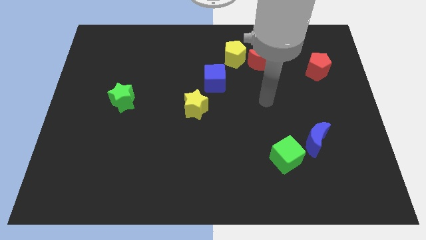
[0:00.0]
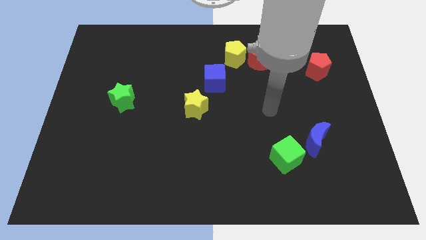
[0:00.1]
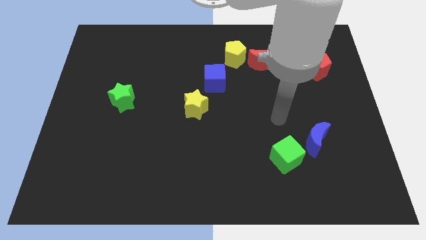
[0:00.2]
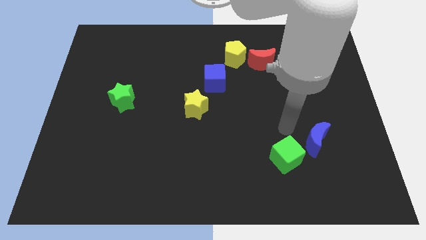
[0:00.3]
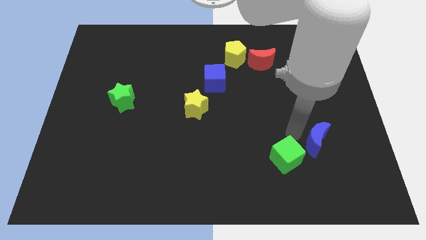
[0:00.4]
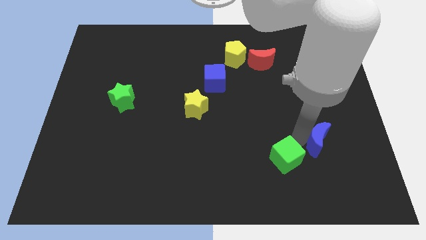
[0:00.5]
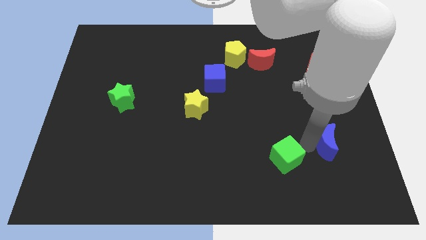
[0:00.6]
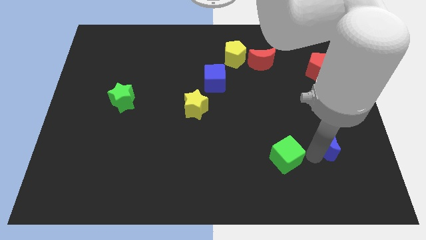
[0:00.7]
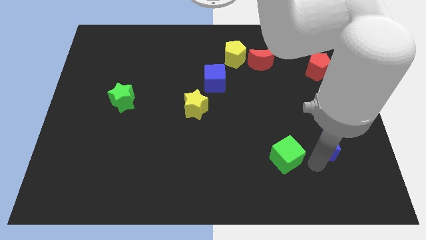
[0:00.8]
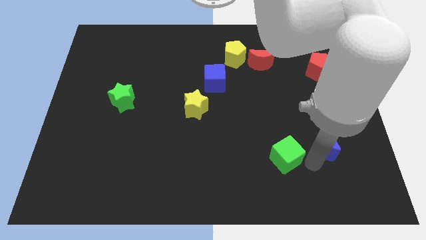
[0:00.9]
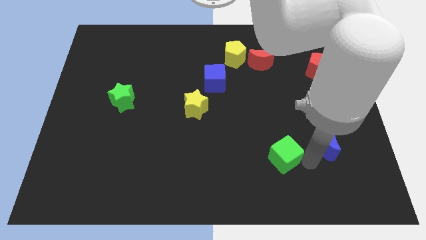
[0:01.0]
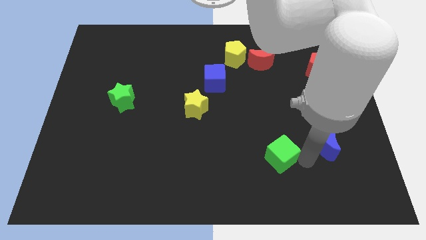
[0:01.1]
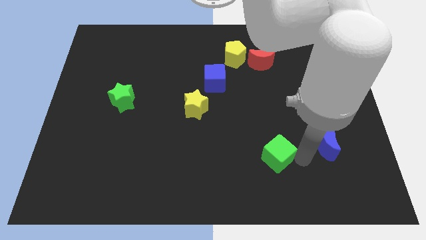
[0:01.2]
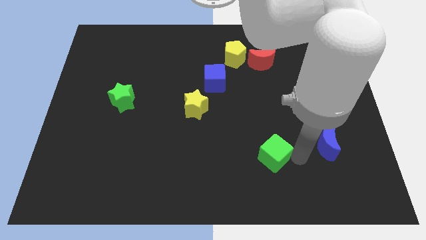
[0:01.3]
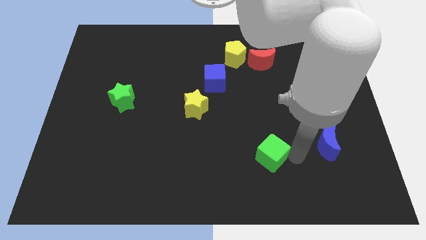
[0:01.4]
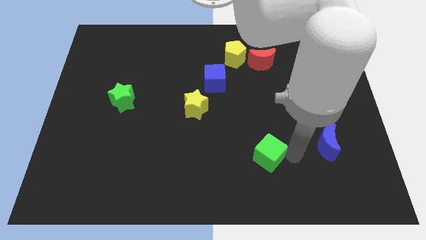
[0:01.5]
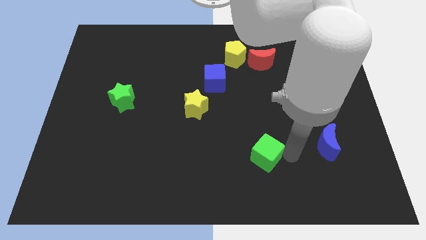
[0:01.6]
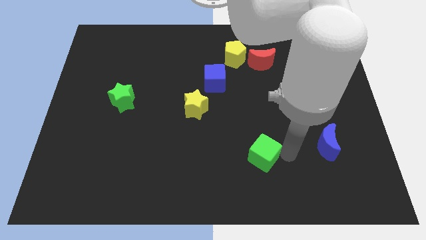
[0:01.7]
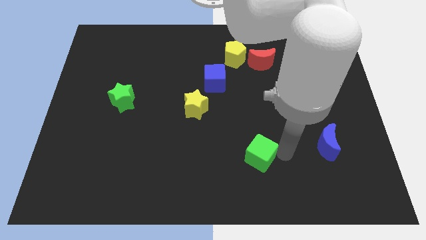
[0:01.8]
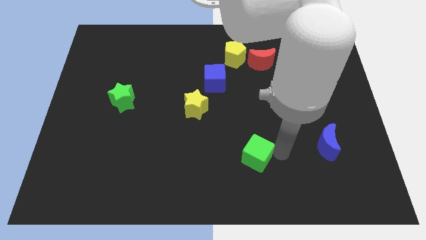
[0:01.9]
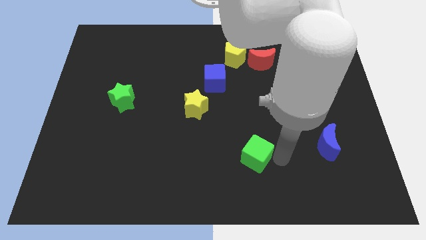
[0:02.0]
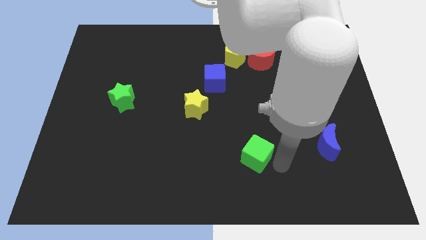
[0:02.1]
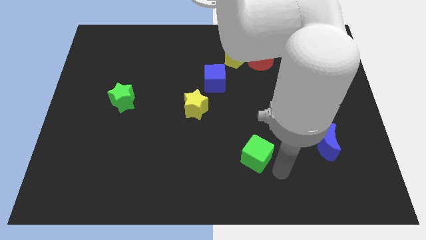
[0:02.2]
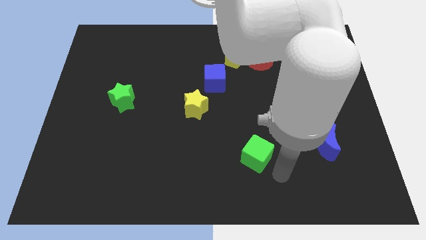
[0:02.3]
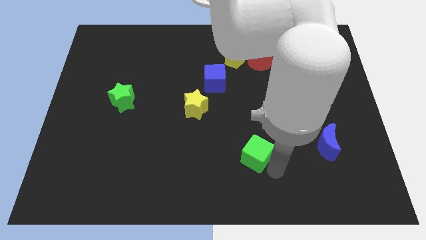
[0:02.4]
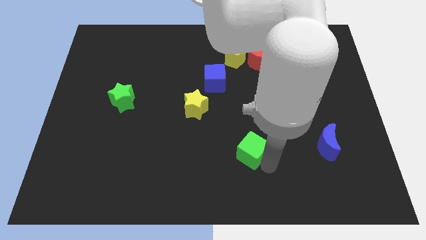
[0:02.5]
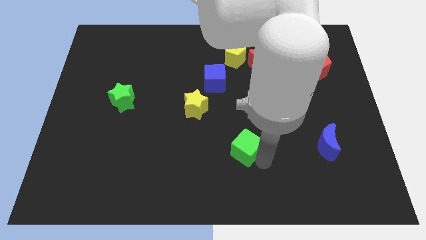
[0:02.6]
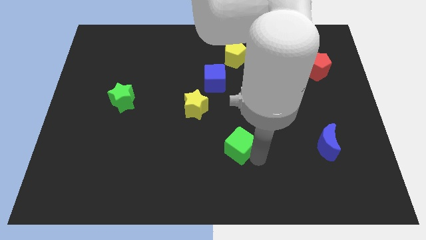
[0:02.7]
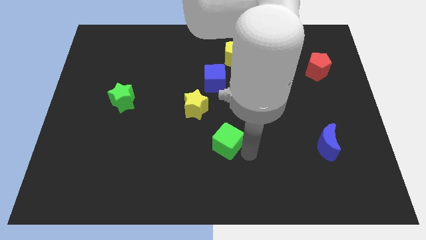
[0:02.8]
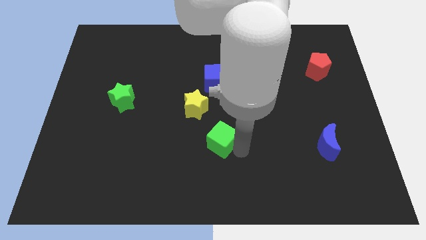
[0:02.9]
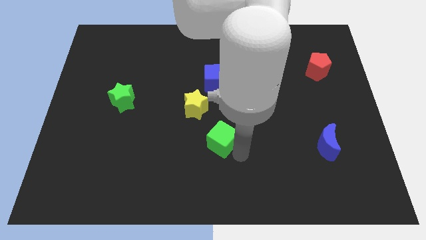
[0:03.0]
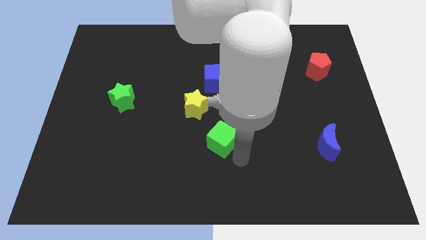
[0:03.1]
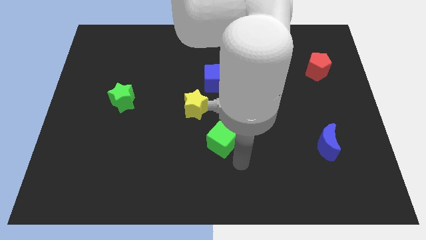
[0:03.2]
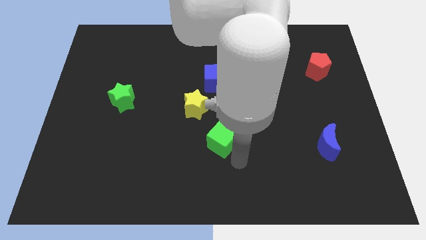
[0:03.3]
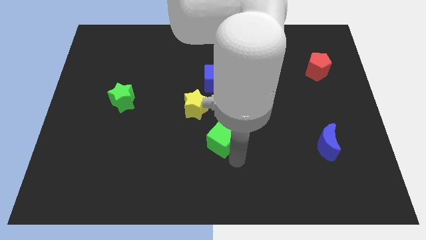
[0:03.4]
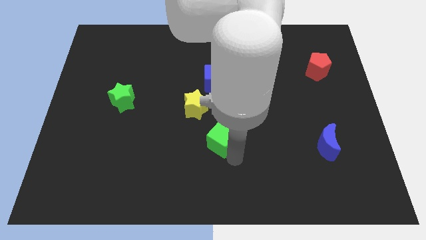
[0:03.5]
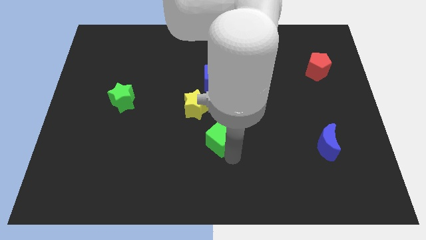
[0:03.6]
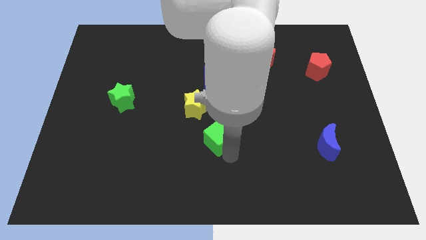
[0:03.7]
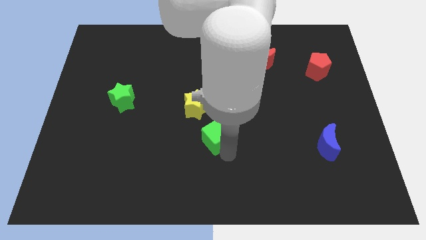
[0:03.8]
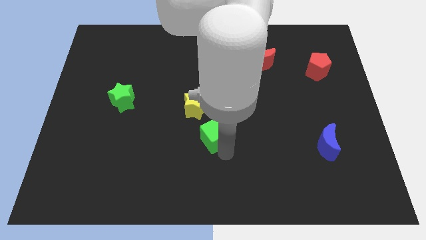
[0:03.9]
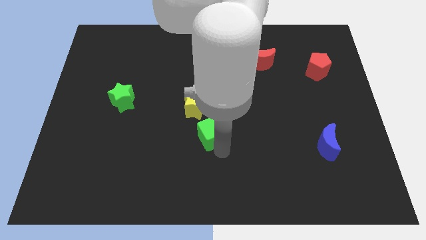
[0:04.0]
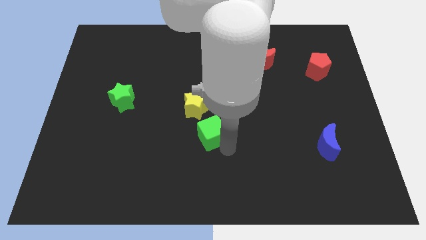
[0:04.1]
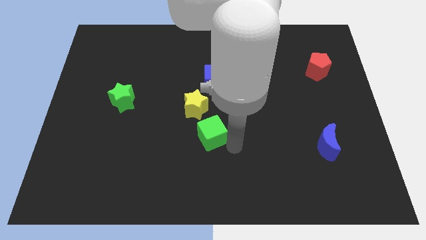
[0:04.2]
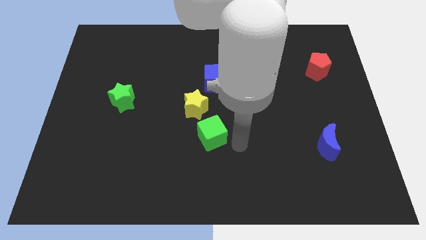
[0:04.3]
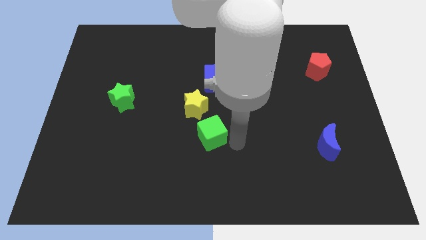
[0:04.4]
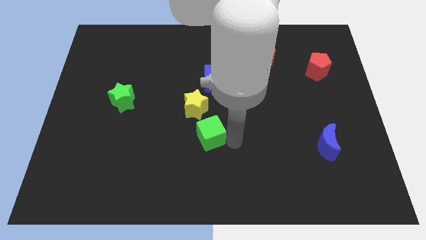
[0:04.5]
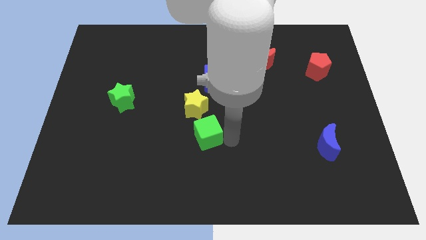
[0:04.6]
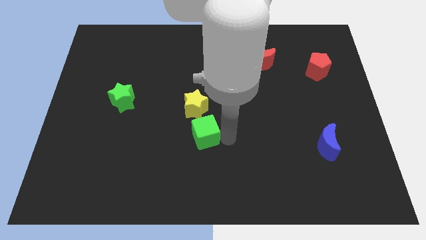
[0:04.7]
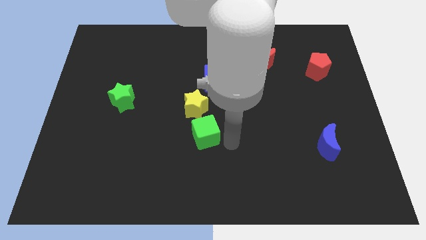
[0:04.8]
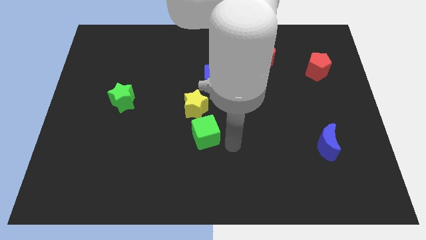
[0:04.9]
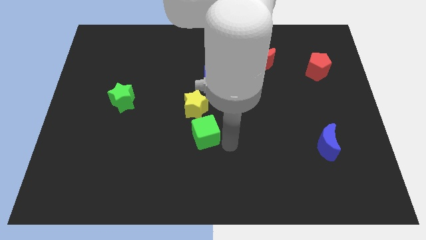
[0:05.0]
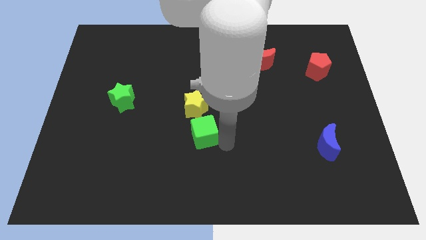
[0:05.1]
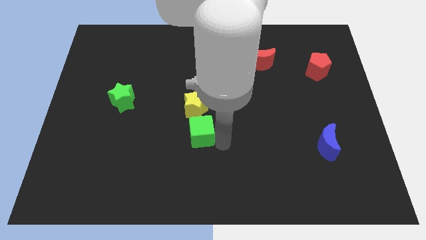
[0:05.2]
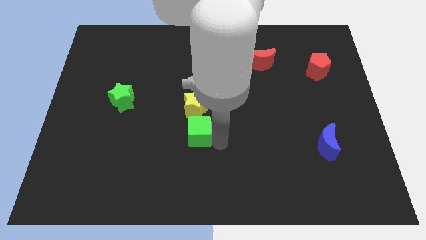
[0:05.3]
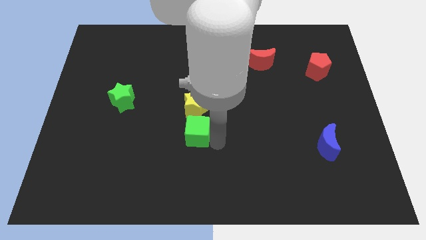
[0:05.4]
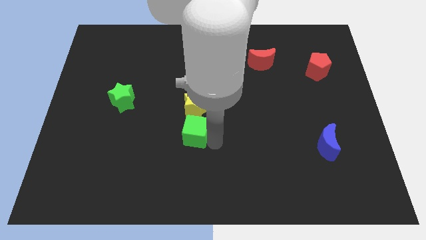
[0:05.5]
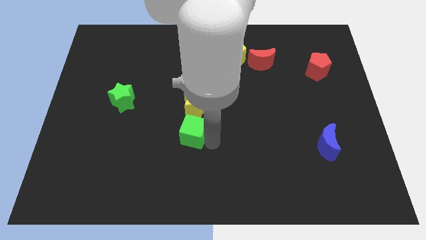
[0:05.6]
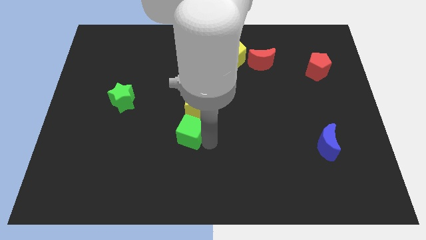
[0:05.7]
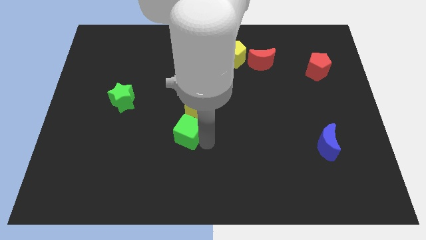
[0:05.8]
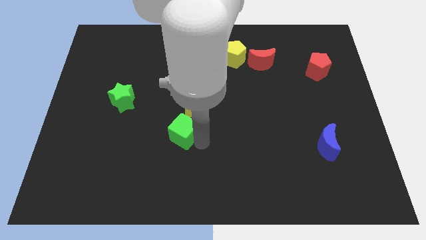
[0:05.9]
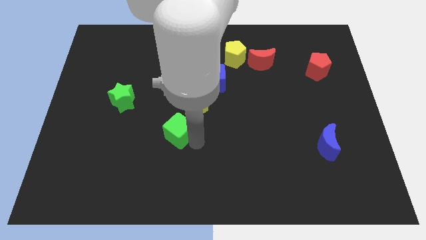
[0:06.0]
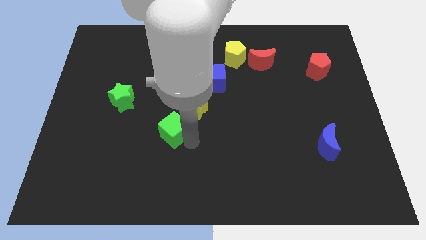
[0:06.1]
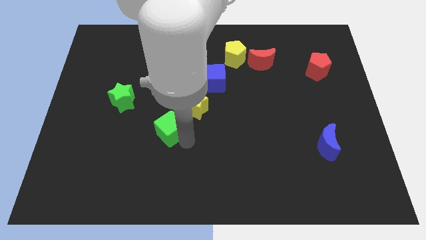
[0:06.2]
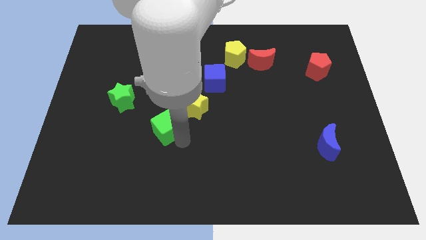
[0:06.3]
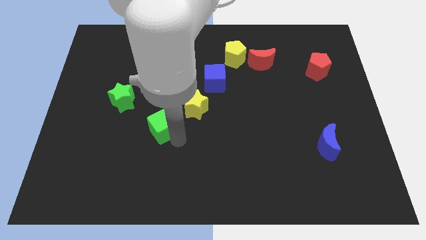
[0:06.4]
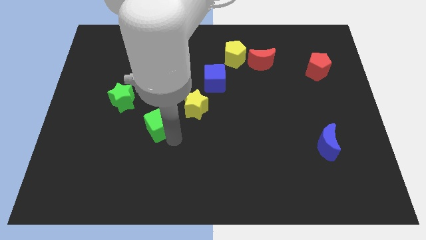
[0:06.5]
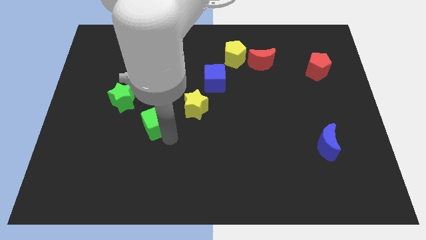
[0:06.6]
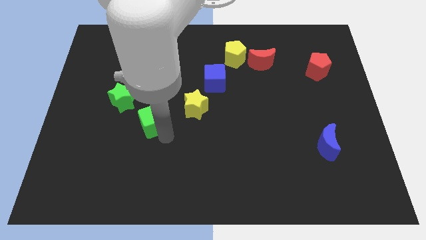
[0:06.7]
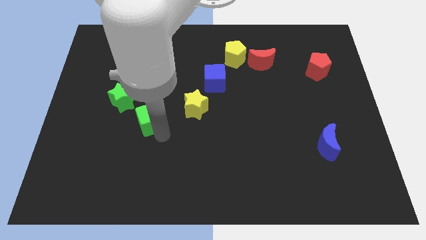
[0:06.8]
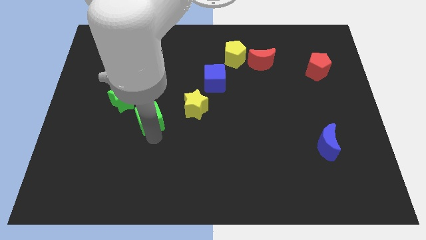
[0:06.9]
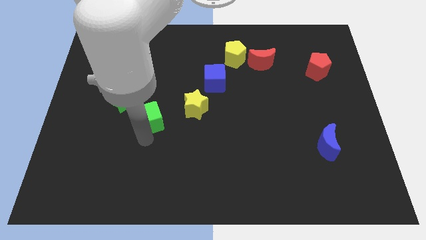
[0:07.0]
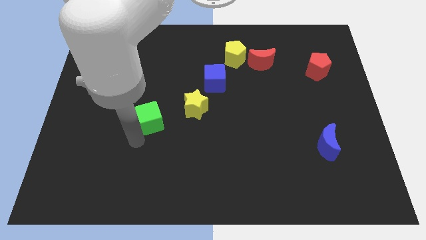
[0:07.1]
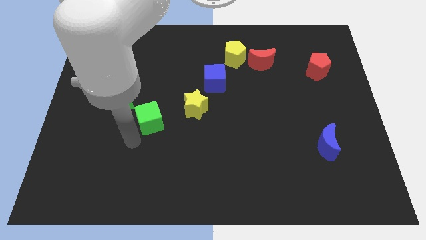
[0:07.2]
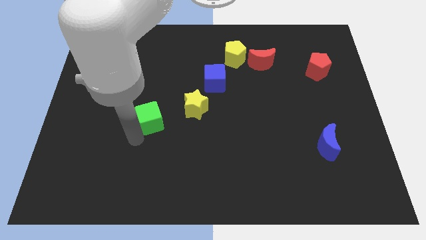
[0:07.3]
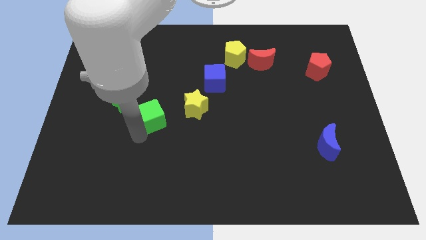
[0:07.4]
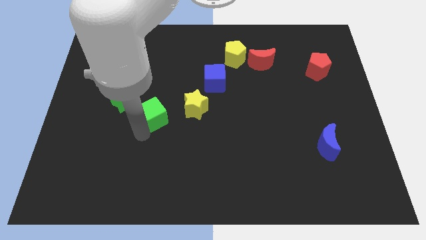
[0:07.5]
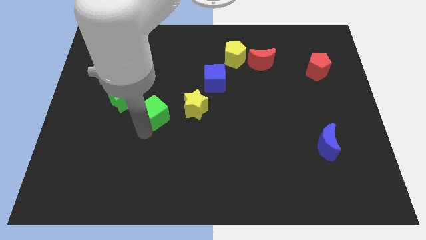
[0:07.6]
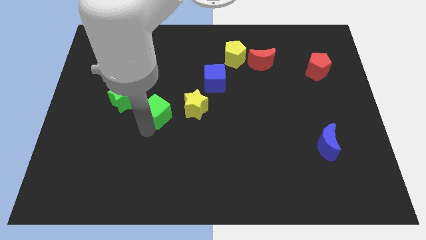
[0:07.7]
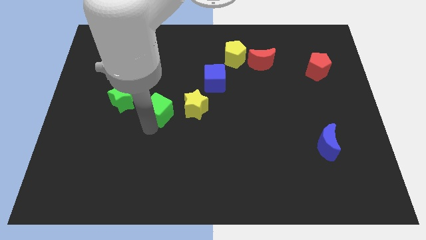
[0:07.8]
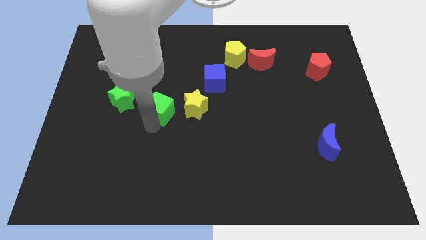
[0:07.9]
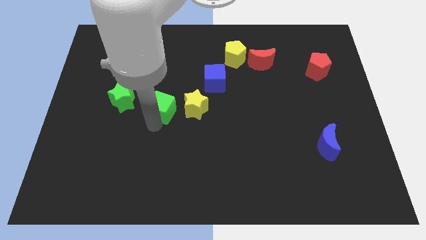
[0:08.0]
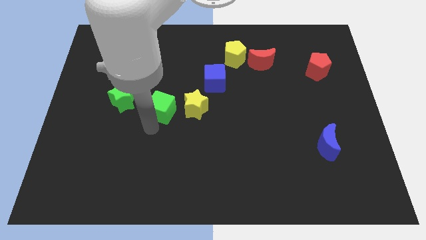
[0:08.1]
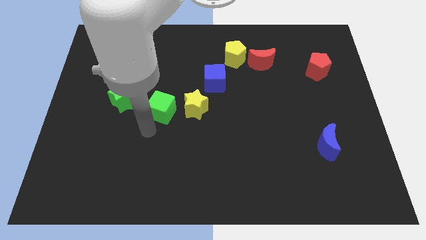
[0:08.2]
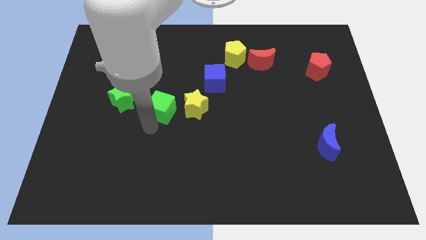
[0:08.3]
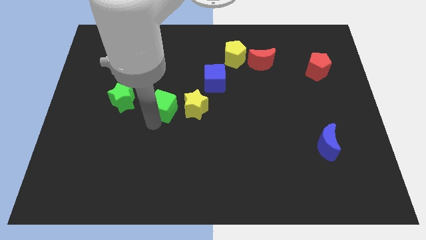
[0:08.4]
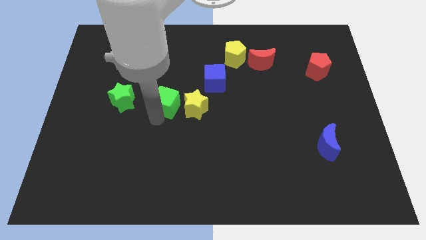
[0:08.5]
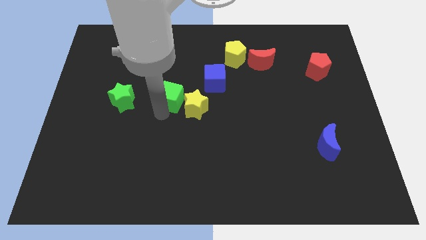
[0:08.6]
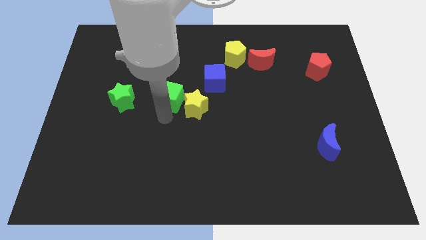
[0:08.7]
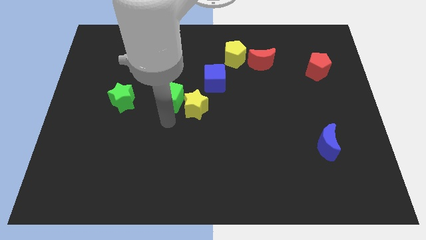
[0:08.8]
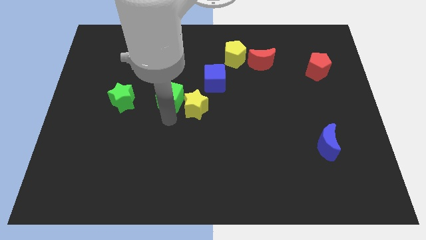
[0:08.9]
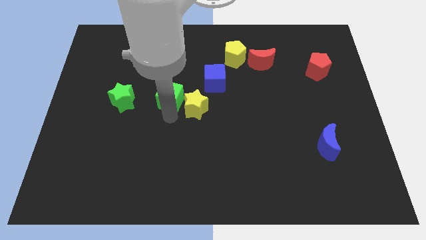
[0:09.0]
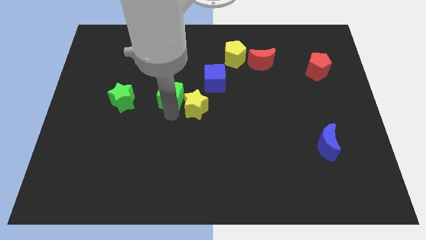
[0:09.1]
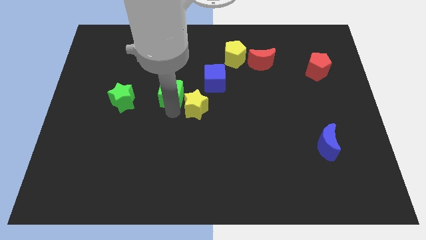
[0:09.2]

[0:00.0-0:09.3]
slide the green cube left of the blue cube
